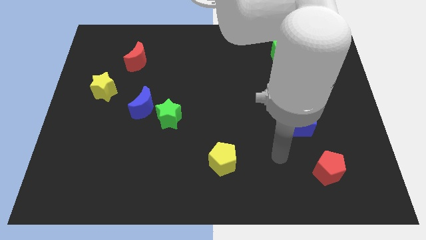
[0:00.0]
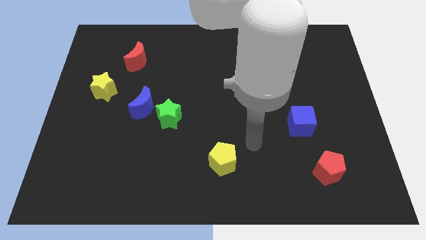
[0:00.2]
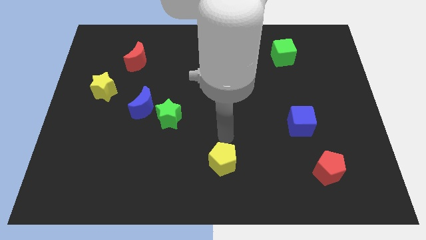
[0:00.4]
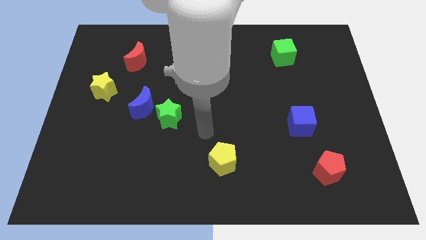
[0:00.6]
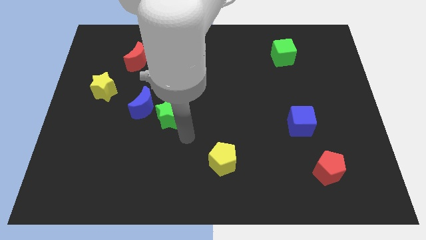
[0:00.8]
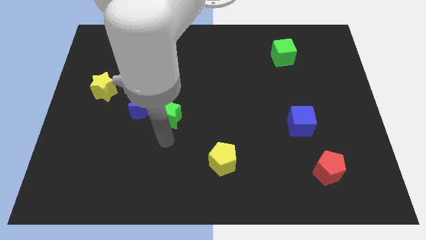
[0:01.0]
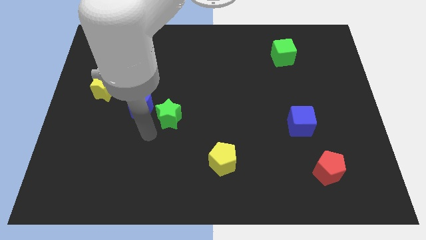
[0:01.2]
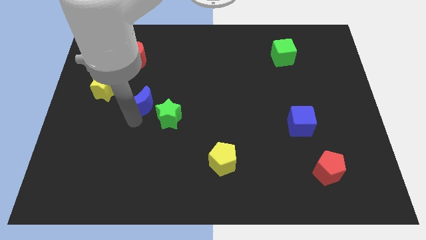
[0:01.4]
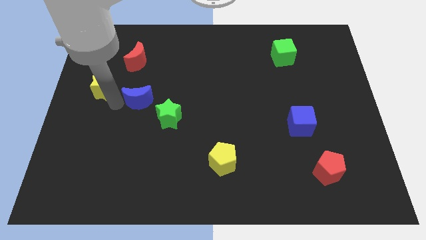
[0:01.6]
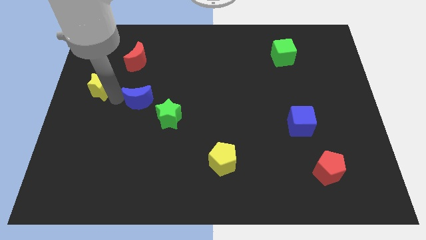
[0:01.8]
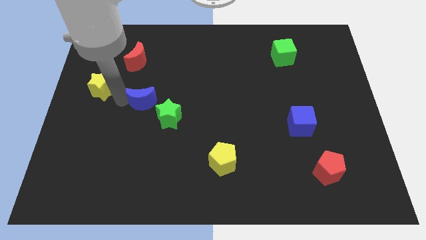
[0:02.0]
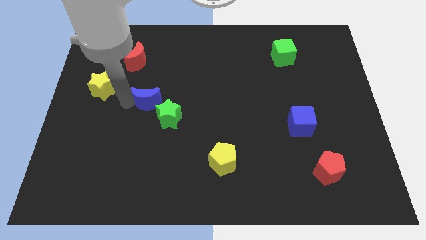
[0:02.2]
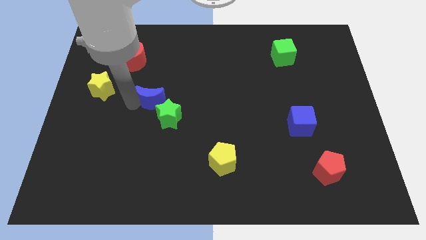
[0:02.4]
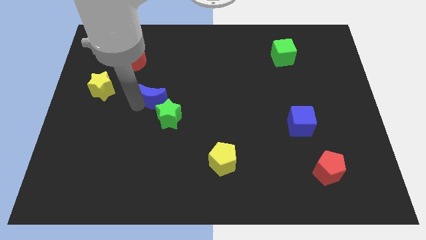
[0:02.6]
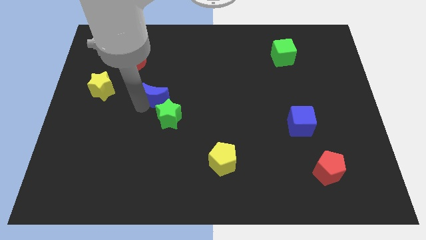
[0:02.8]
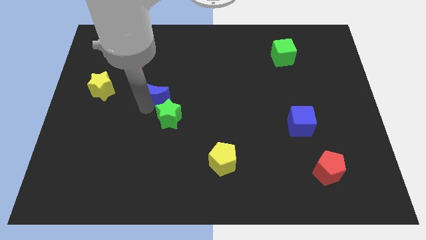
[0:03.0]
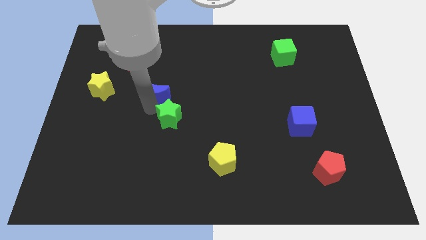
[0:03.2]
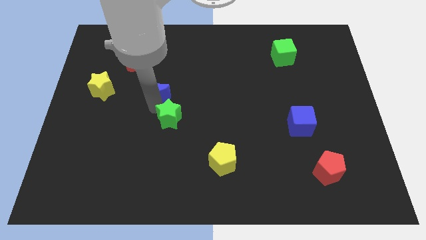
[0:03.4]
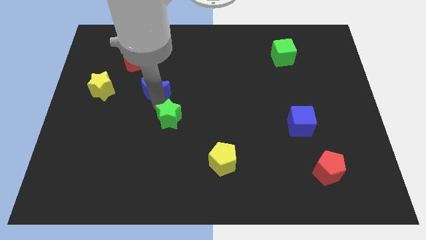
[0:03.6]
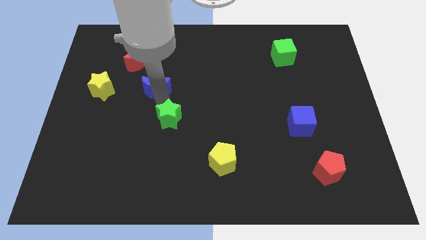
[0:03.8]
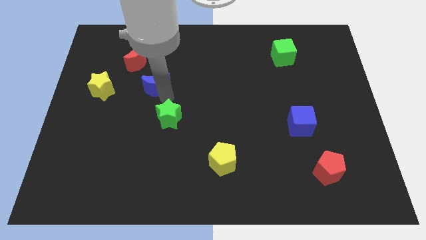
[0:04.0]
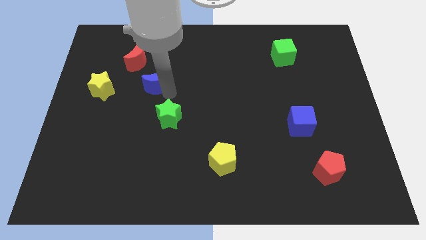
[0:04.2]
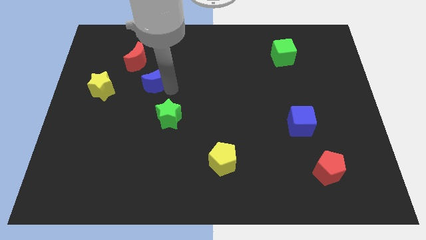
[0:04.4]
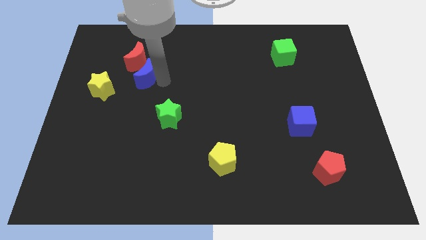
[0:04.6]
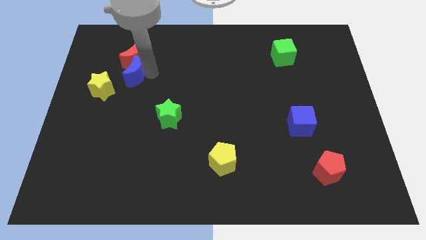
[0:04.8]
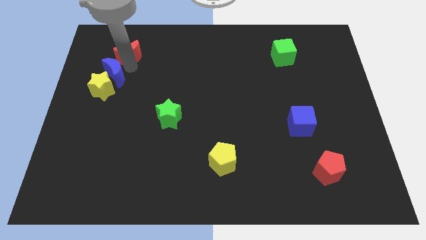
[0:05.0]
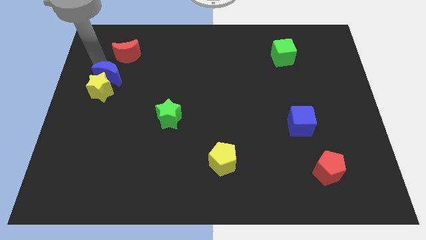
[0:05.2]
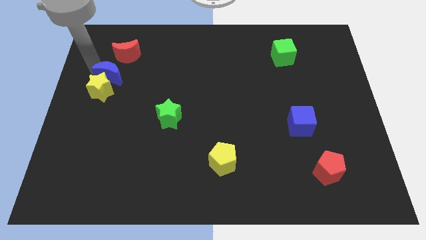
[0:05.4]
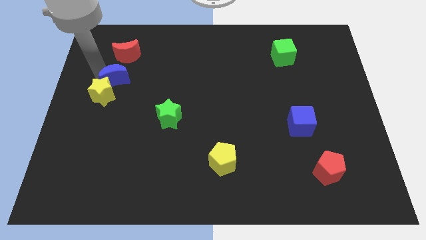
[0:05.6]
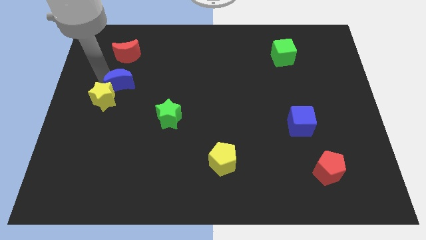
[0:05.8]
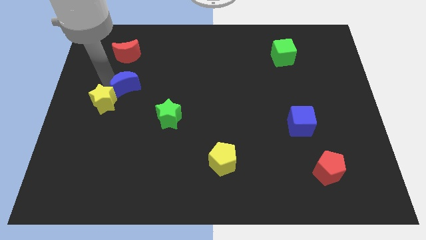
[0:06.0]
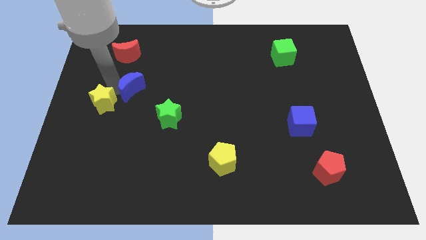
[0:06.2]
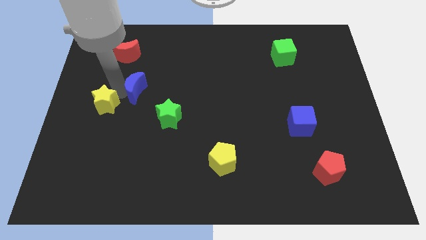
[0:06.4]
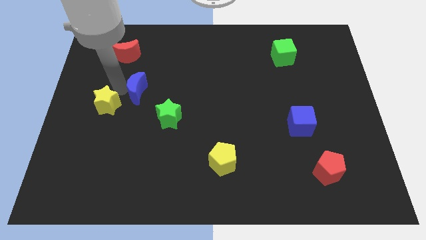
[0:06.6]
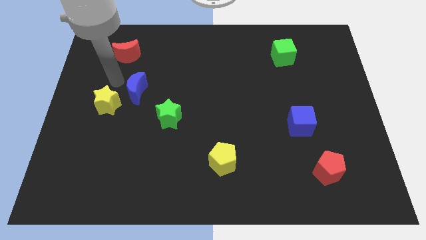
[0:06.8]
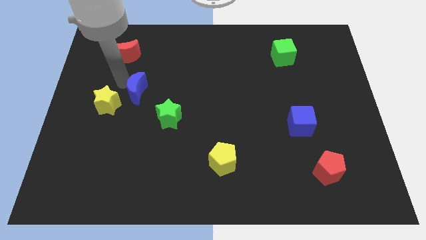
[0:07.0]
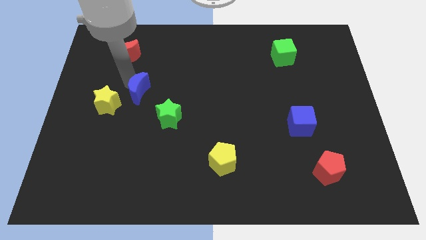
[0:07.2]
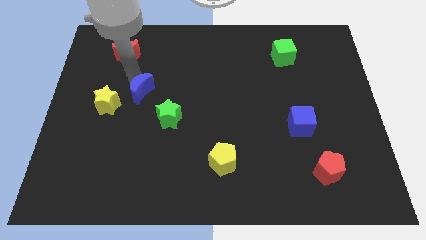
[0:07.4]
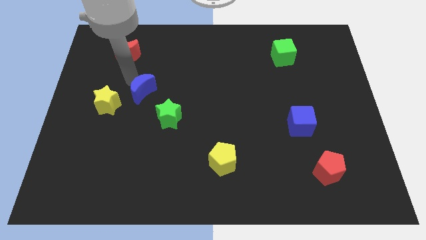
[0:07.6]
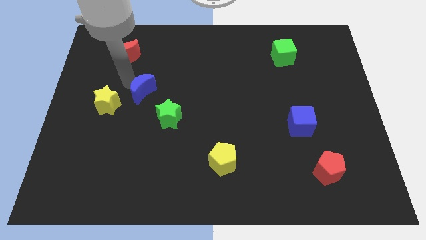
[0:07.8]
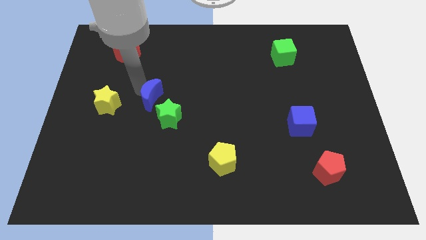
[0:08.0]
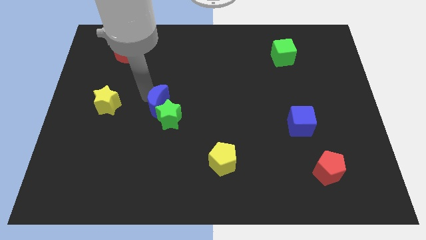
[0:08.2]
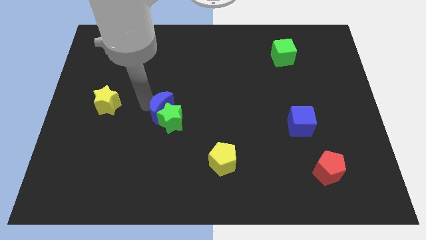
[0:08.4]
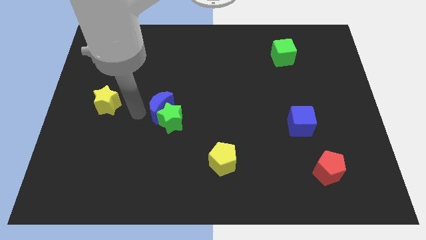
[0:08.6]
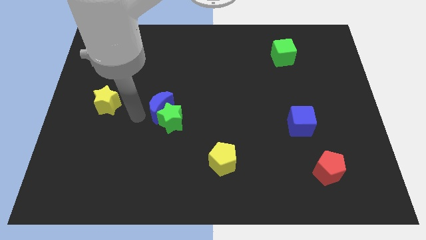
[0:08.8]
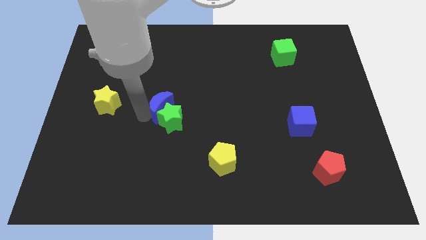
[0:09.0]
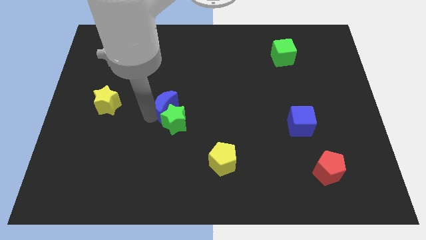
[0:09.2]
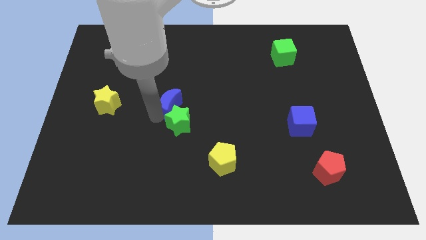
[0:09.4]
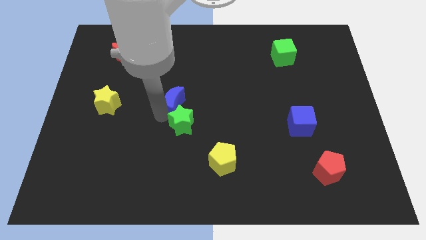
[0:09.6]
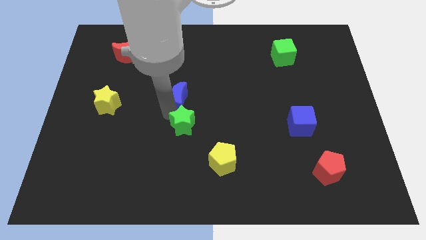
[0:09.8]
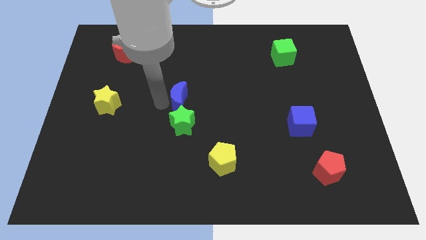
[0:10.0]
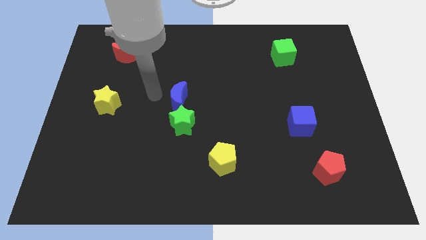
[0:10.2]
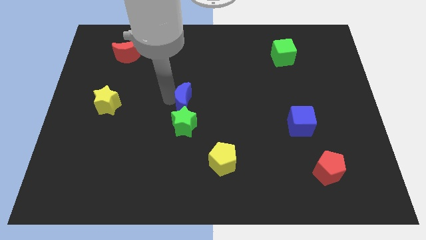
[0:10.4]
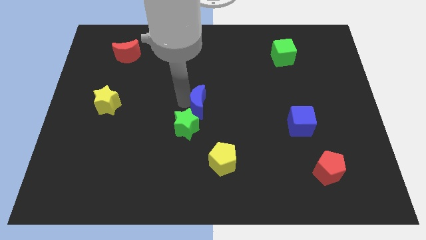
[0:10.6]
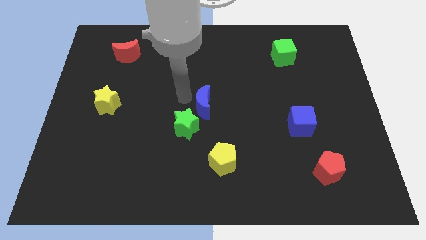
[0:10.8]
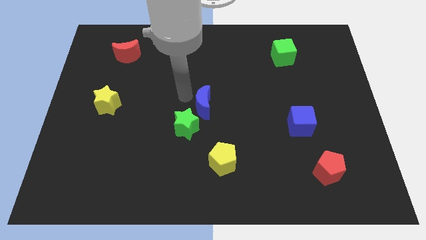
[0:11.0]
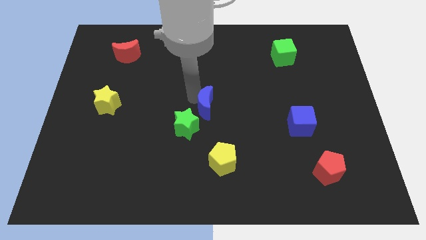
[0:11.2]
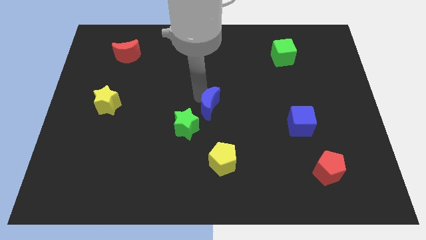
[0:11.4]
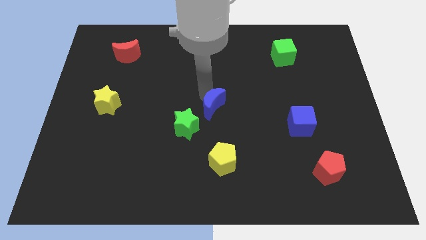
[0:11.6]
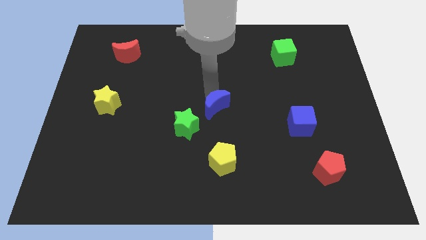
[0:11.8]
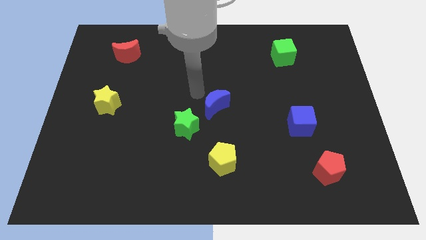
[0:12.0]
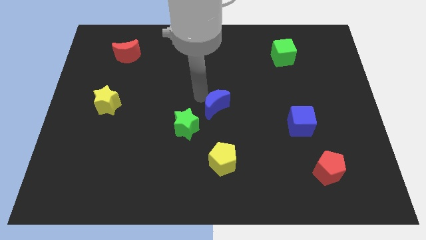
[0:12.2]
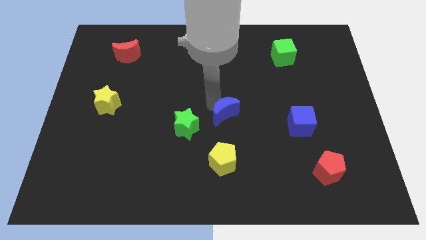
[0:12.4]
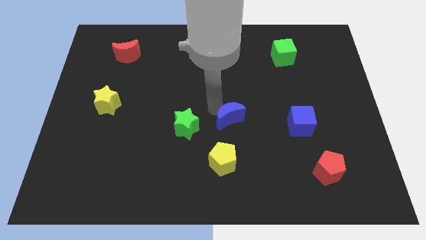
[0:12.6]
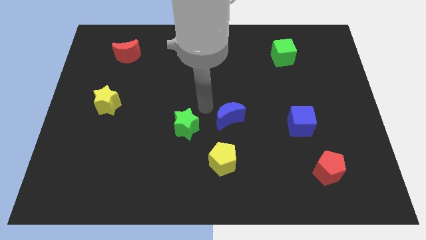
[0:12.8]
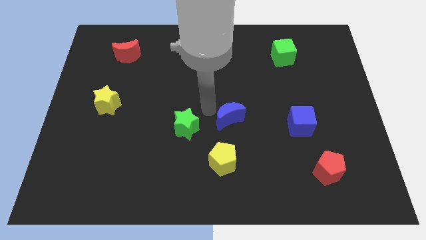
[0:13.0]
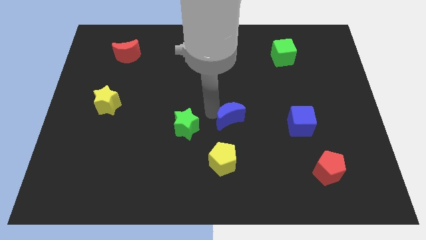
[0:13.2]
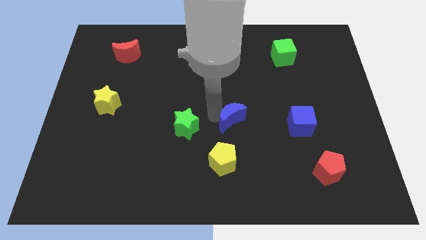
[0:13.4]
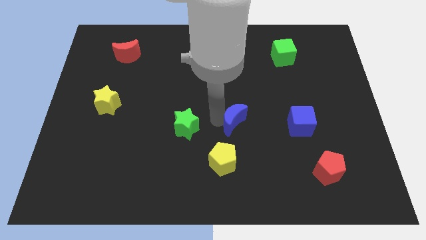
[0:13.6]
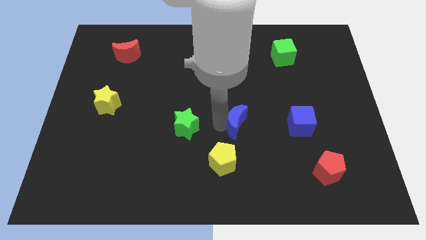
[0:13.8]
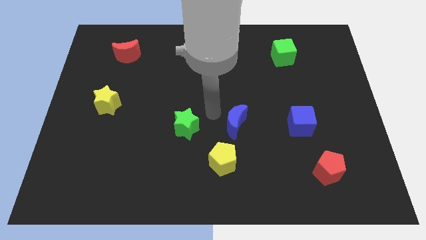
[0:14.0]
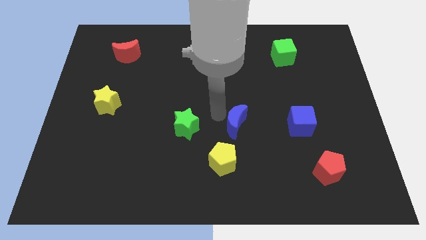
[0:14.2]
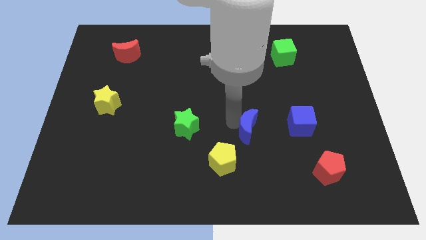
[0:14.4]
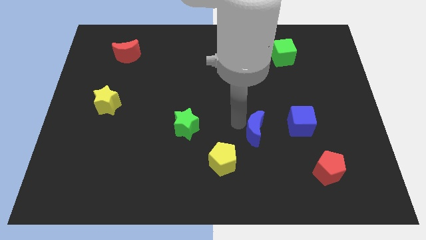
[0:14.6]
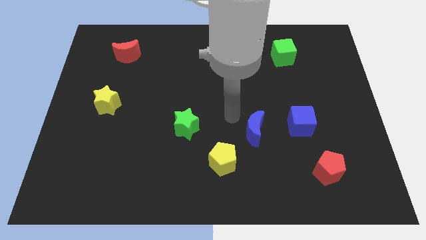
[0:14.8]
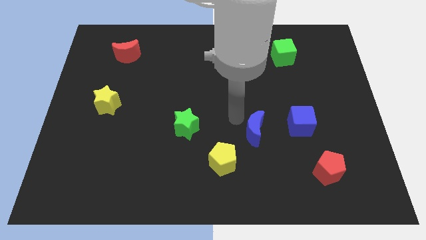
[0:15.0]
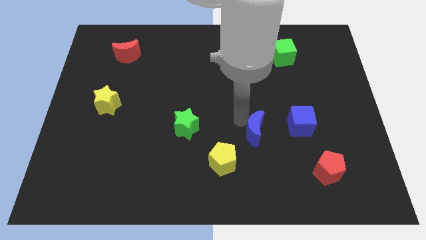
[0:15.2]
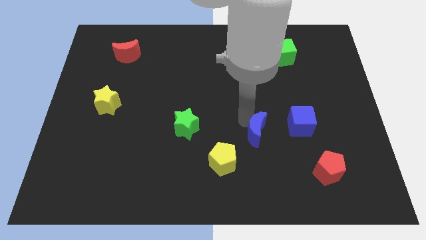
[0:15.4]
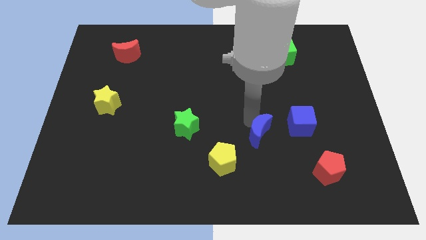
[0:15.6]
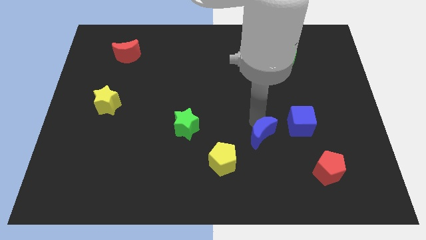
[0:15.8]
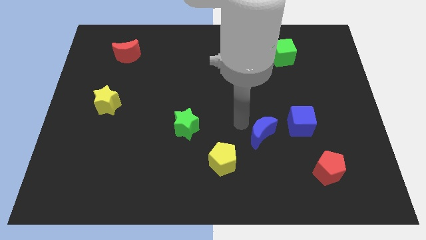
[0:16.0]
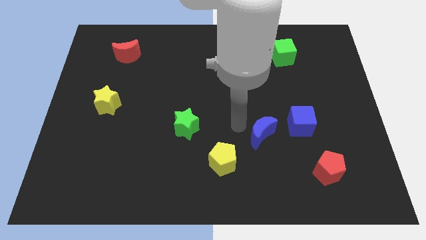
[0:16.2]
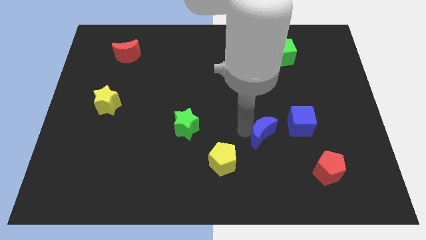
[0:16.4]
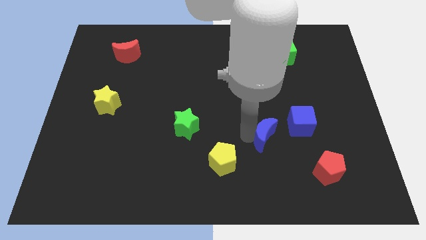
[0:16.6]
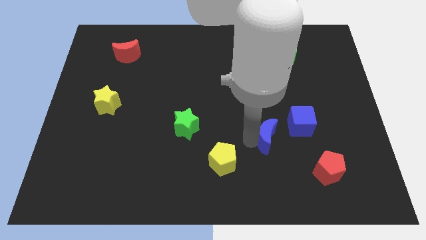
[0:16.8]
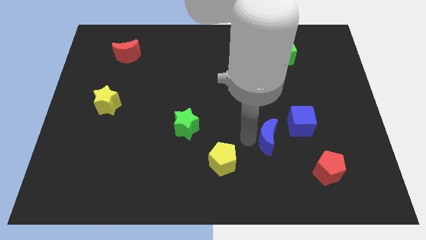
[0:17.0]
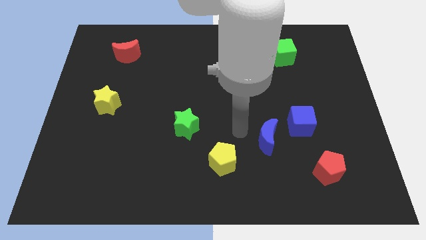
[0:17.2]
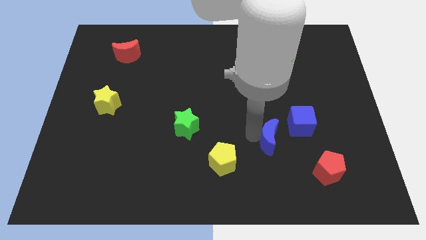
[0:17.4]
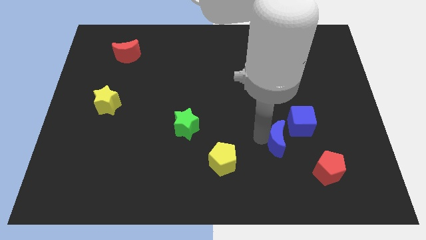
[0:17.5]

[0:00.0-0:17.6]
put the blue moon to the top left of the red pentagon
